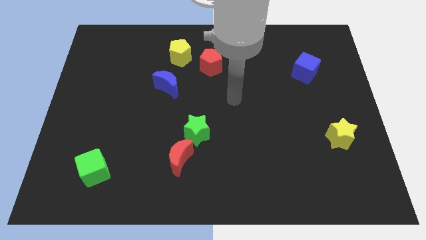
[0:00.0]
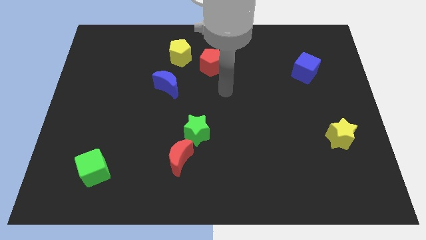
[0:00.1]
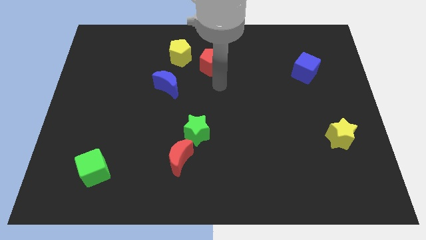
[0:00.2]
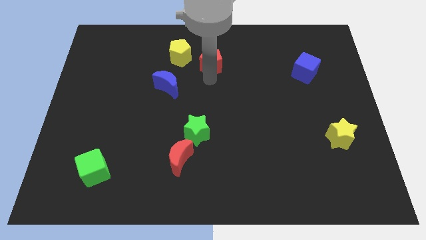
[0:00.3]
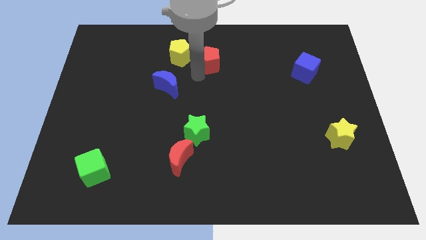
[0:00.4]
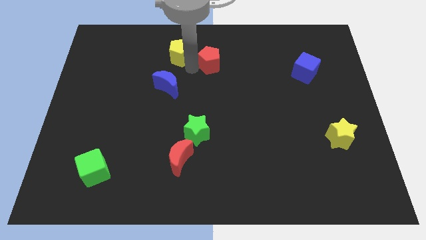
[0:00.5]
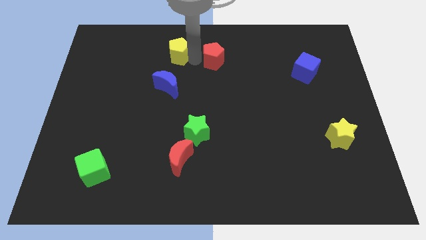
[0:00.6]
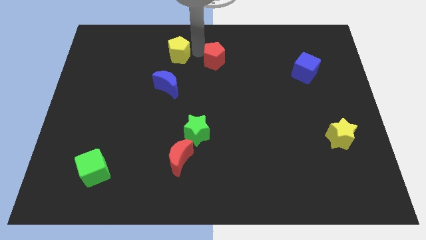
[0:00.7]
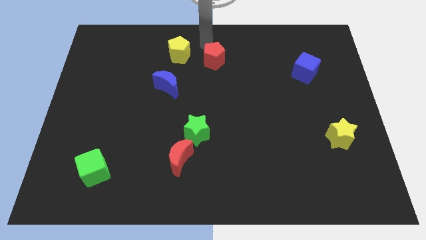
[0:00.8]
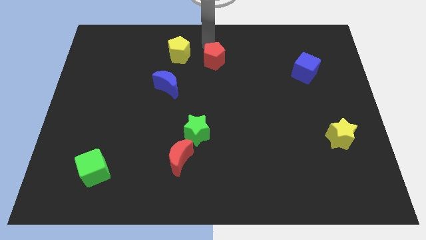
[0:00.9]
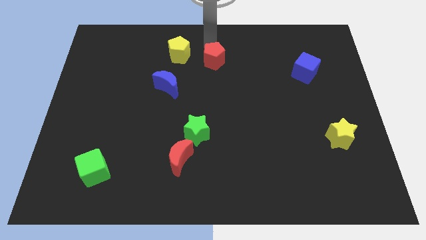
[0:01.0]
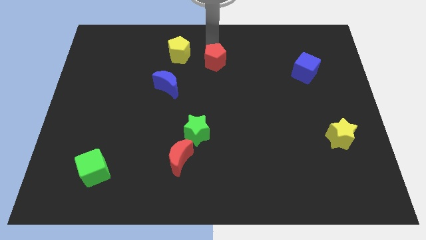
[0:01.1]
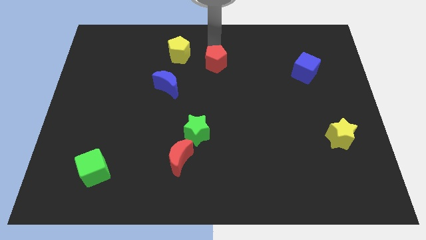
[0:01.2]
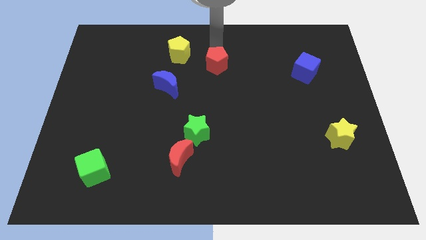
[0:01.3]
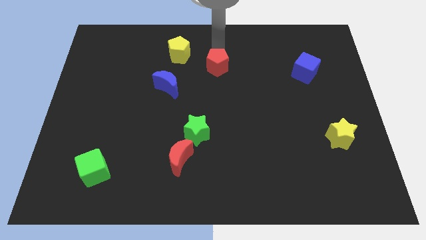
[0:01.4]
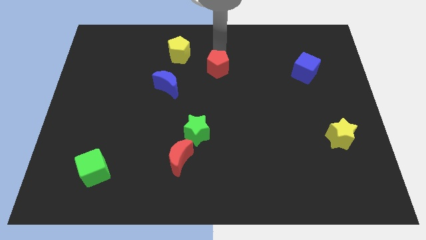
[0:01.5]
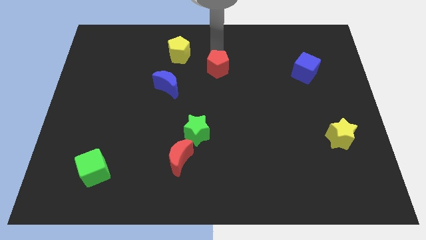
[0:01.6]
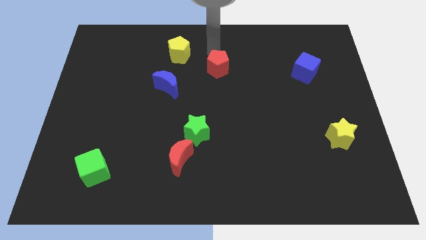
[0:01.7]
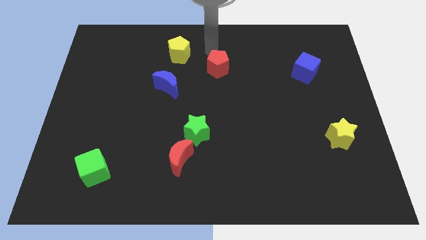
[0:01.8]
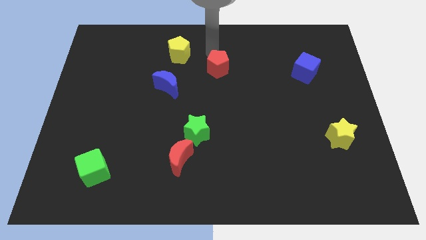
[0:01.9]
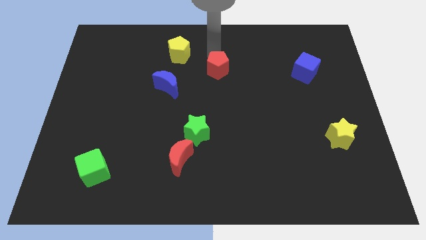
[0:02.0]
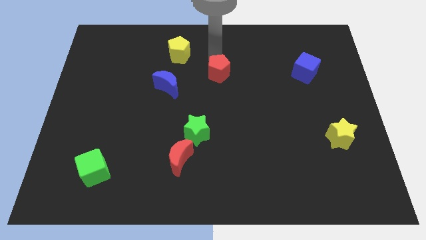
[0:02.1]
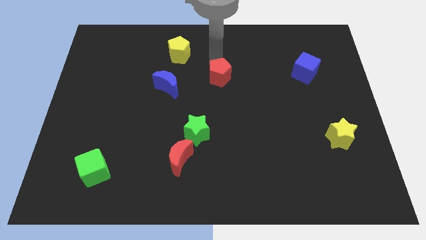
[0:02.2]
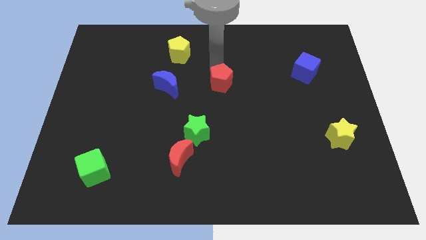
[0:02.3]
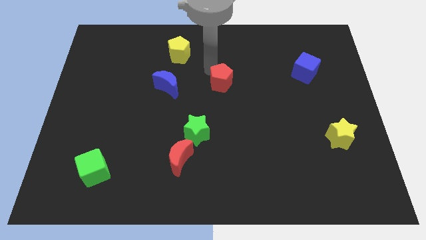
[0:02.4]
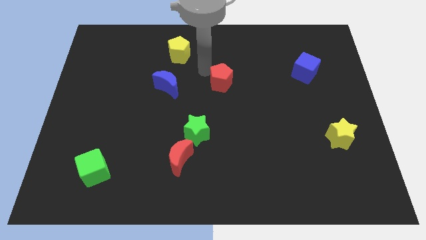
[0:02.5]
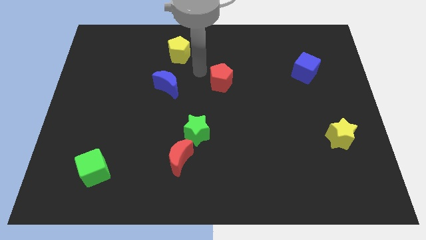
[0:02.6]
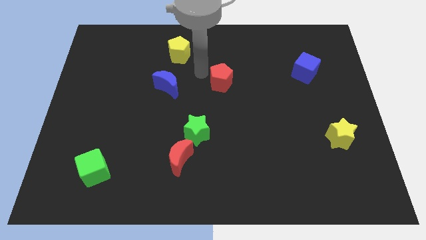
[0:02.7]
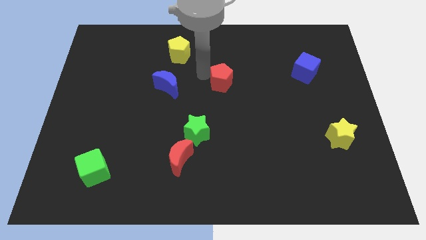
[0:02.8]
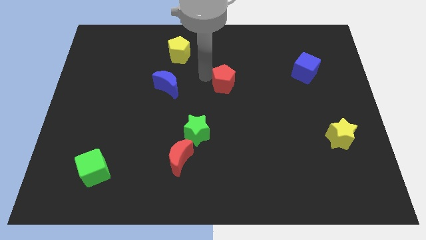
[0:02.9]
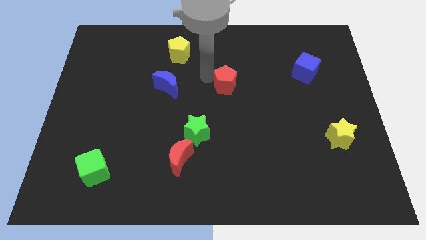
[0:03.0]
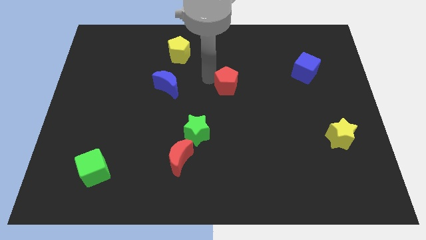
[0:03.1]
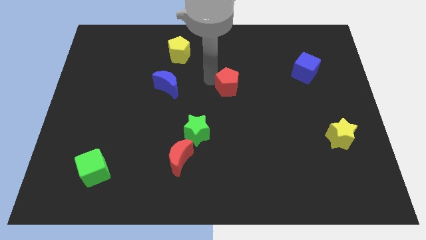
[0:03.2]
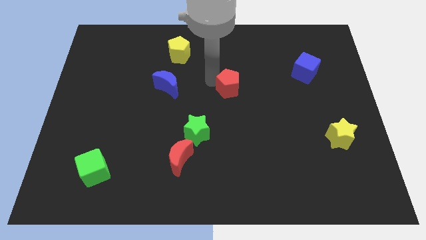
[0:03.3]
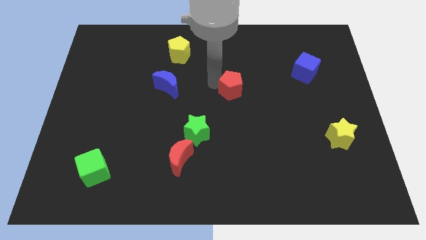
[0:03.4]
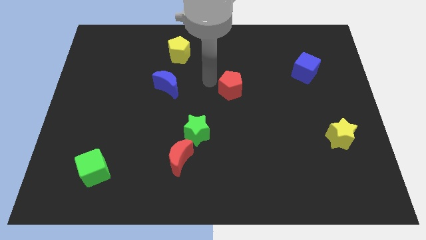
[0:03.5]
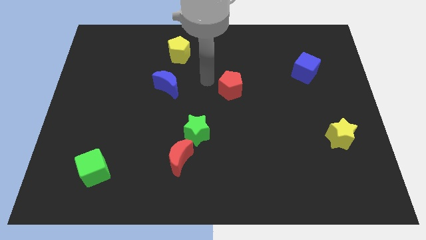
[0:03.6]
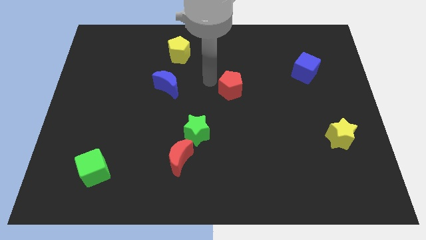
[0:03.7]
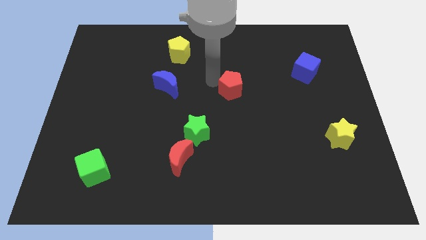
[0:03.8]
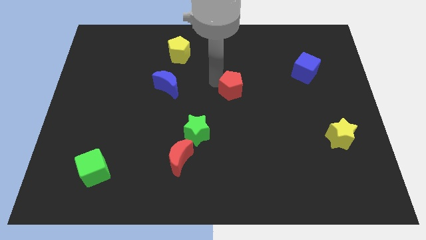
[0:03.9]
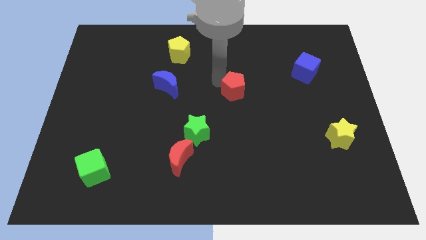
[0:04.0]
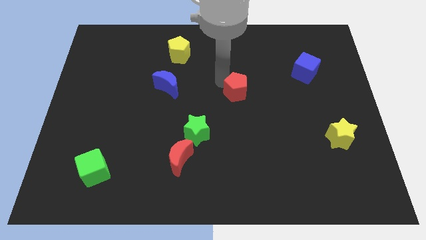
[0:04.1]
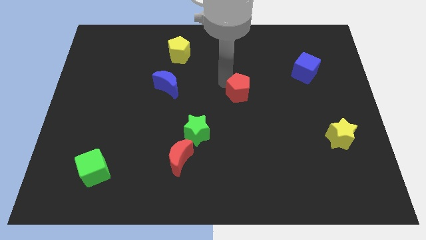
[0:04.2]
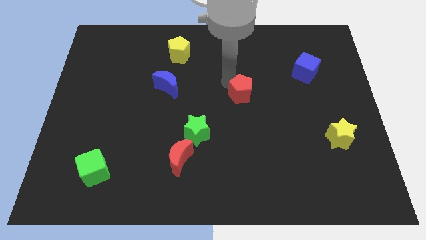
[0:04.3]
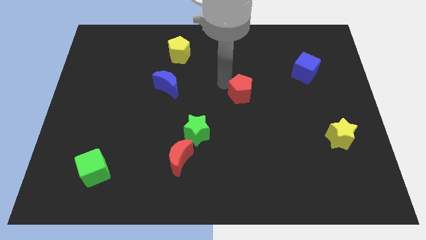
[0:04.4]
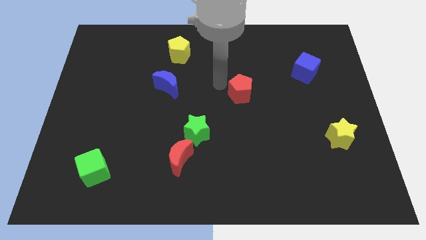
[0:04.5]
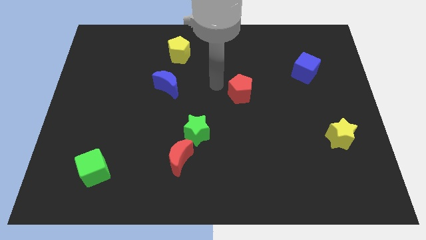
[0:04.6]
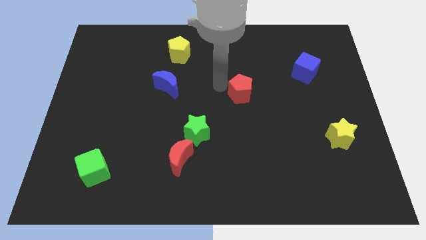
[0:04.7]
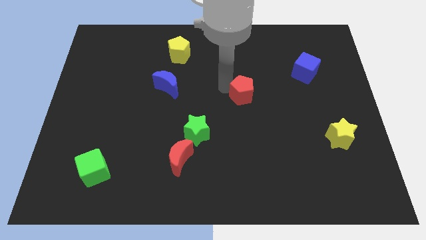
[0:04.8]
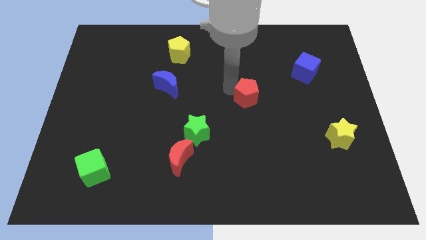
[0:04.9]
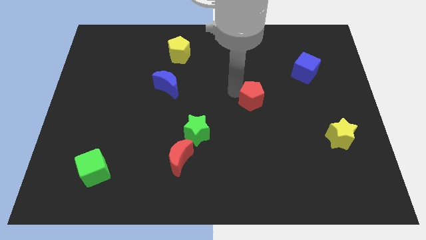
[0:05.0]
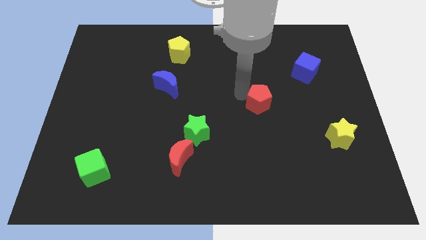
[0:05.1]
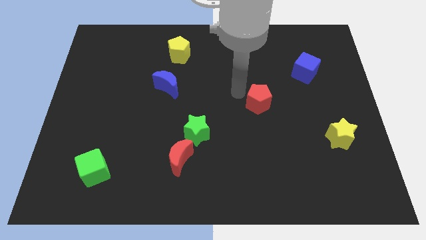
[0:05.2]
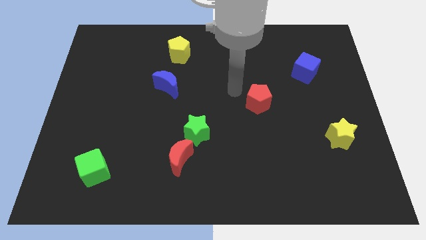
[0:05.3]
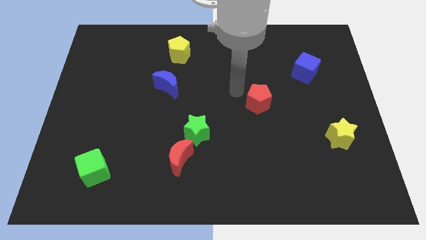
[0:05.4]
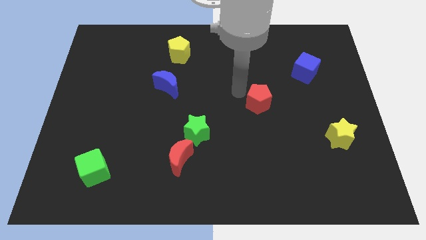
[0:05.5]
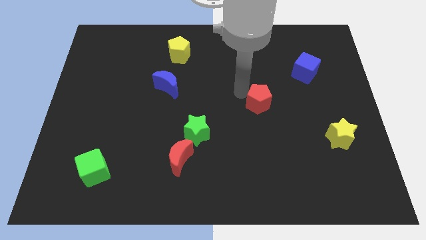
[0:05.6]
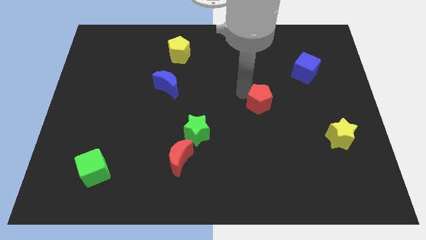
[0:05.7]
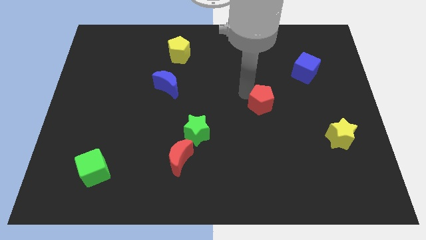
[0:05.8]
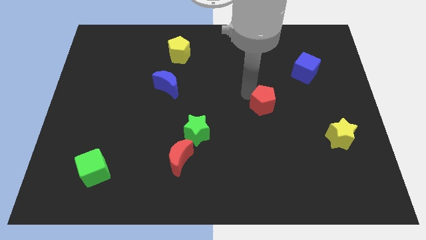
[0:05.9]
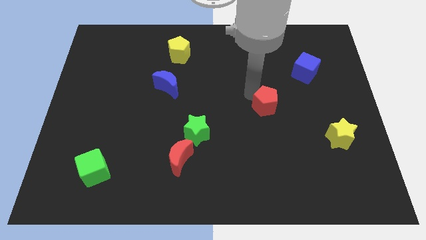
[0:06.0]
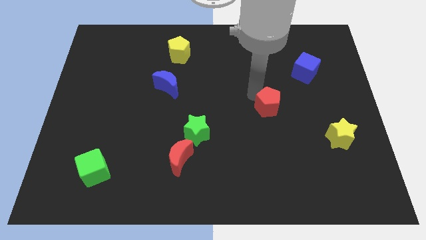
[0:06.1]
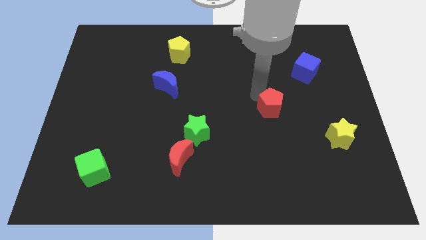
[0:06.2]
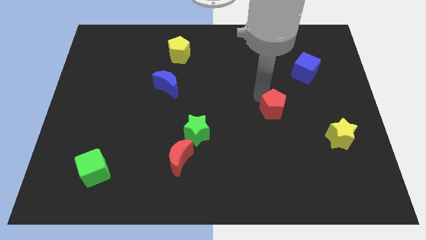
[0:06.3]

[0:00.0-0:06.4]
push the red pentagon down and then right

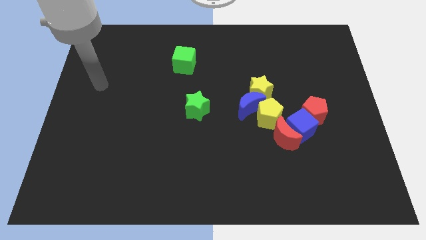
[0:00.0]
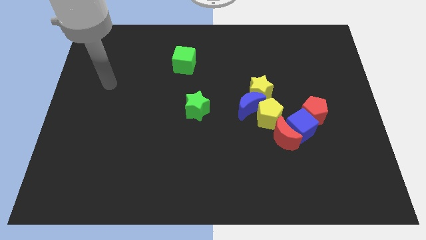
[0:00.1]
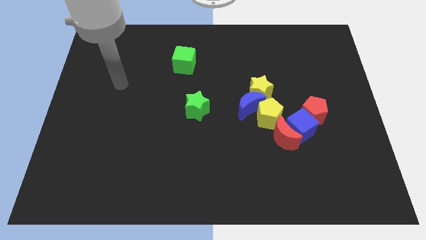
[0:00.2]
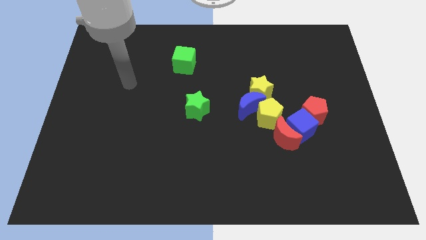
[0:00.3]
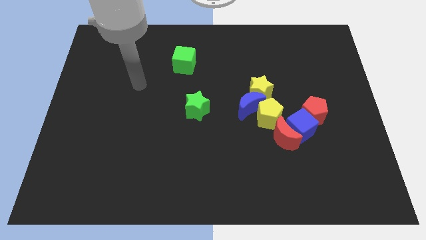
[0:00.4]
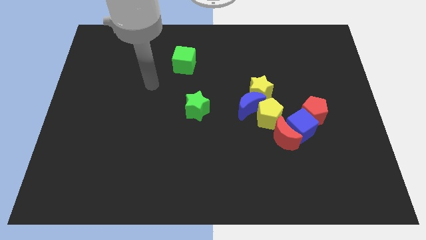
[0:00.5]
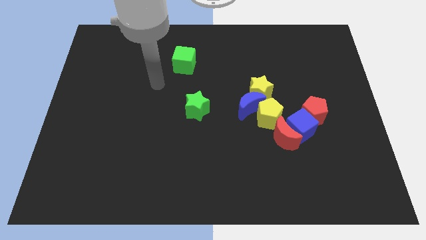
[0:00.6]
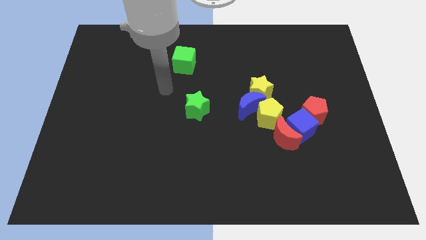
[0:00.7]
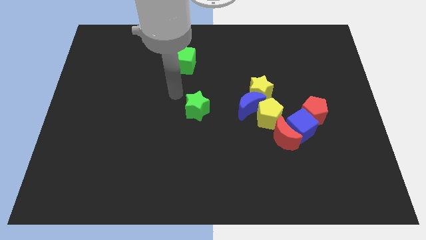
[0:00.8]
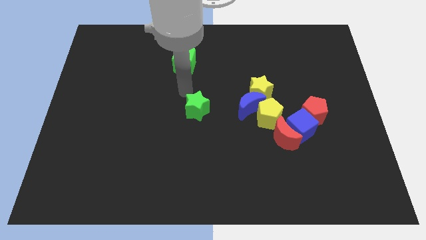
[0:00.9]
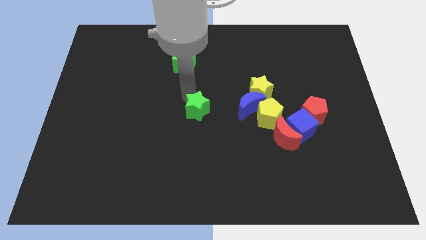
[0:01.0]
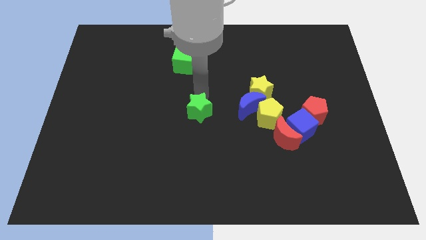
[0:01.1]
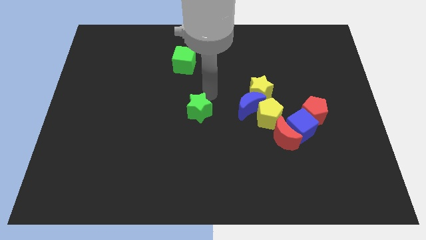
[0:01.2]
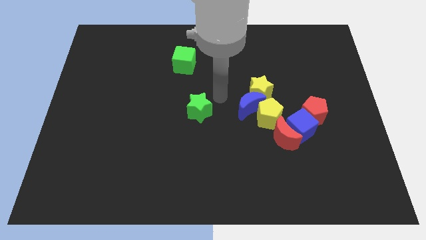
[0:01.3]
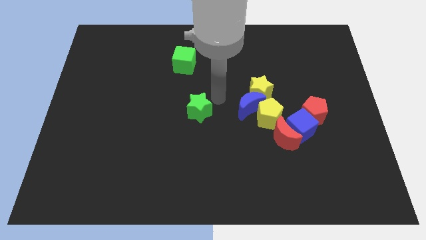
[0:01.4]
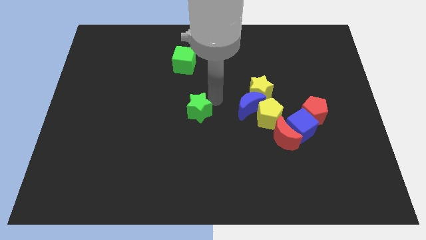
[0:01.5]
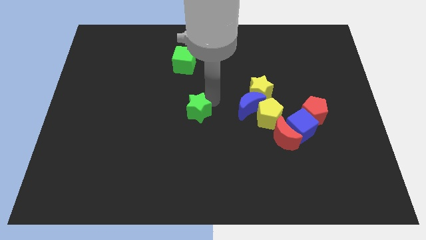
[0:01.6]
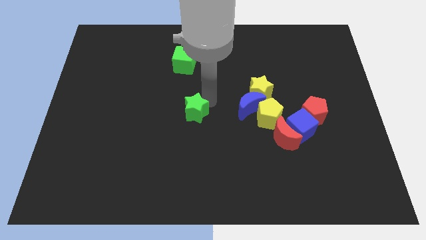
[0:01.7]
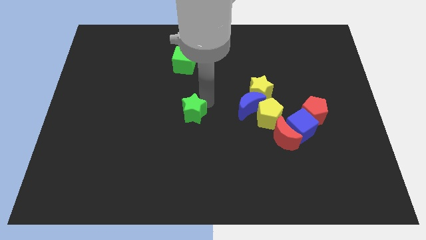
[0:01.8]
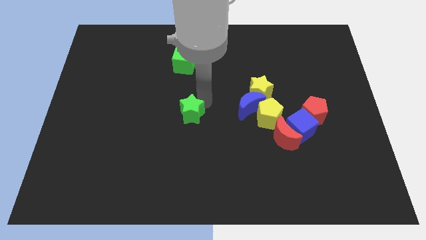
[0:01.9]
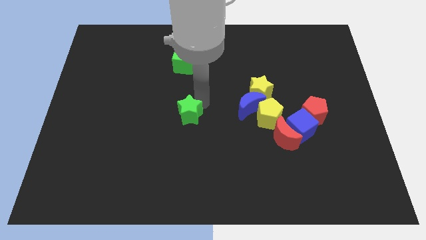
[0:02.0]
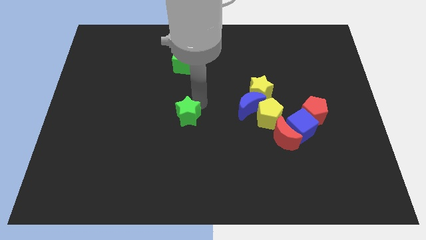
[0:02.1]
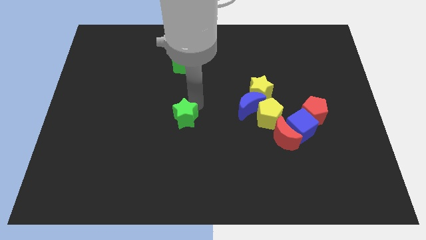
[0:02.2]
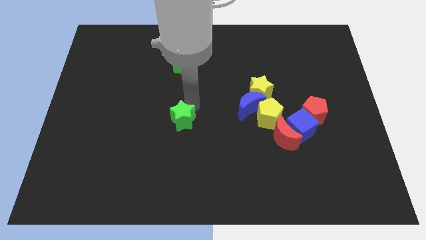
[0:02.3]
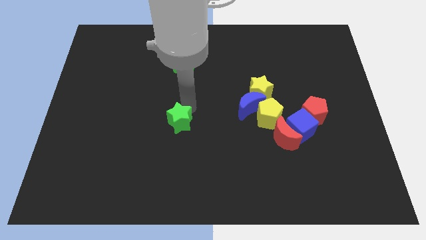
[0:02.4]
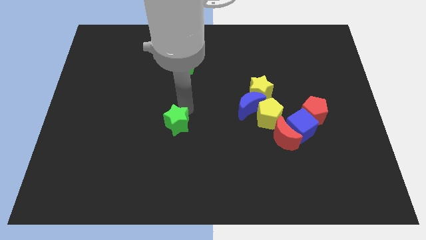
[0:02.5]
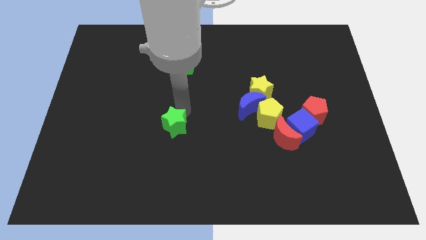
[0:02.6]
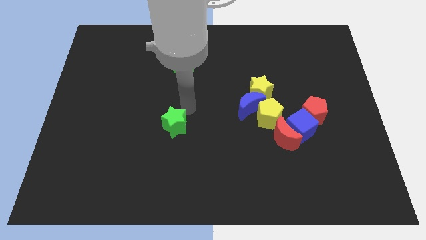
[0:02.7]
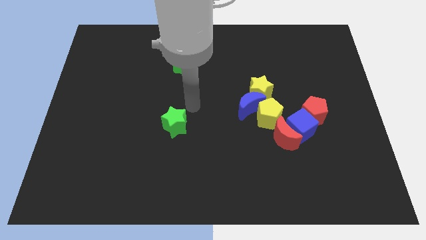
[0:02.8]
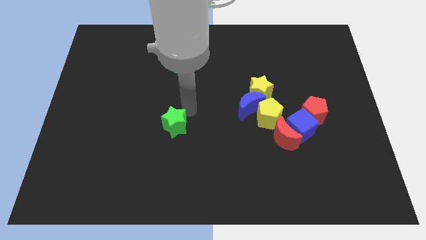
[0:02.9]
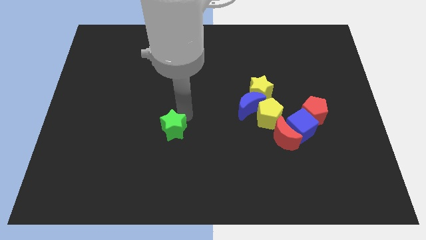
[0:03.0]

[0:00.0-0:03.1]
slightly move the green star downwards and to the left diagonally
